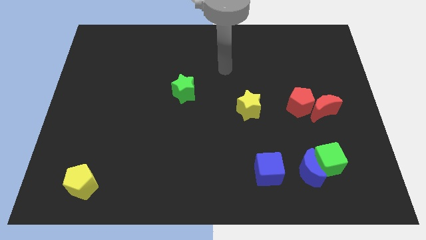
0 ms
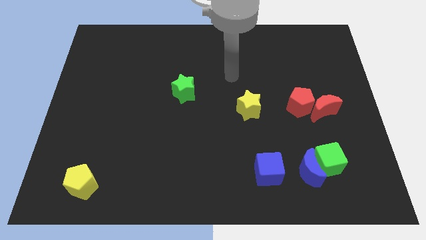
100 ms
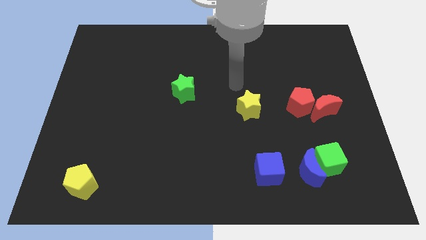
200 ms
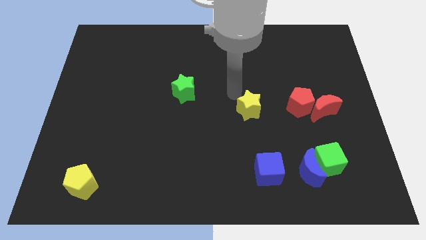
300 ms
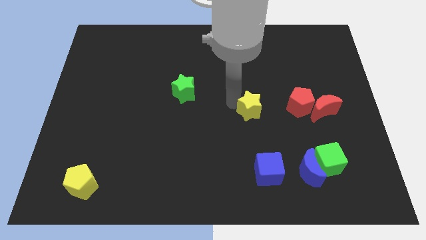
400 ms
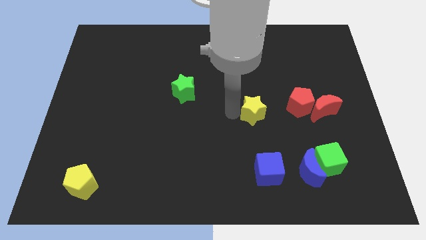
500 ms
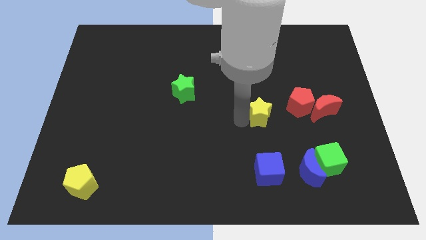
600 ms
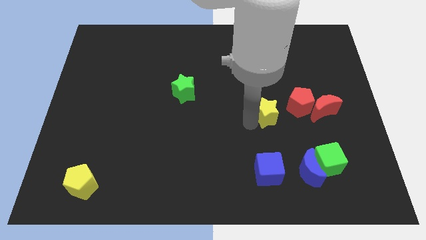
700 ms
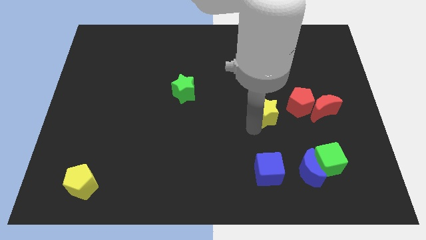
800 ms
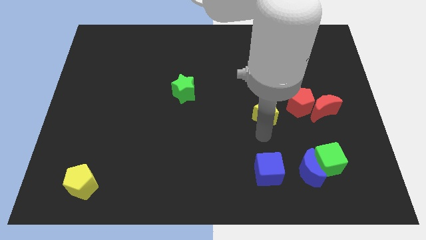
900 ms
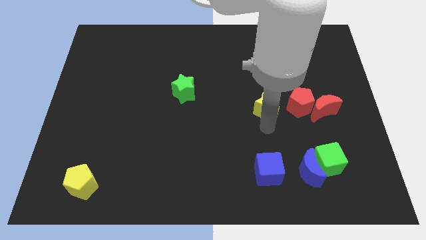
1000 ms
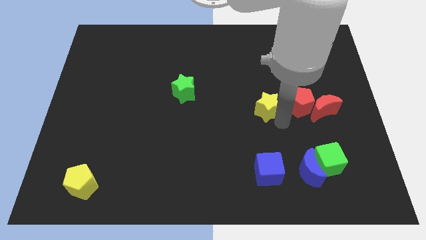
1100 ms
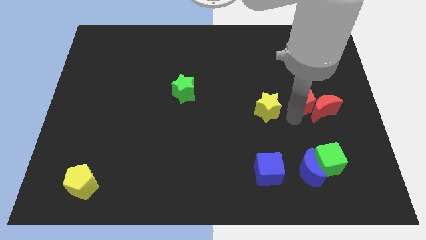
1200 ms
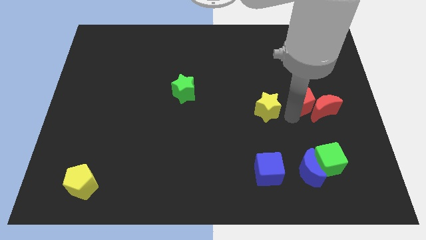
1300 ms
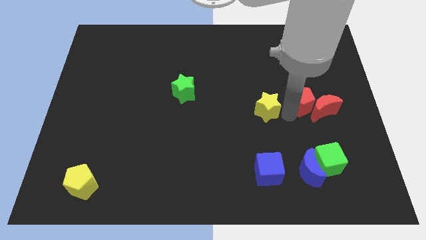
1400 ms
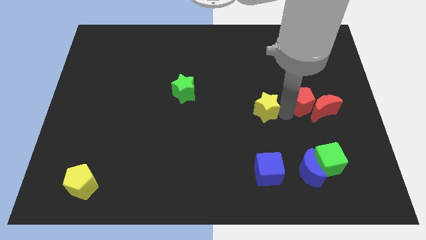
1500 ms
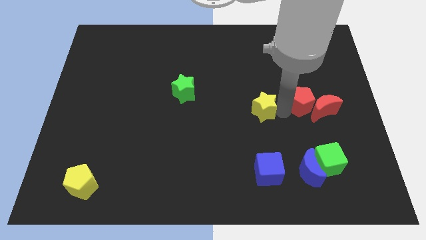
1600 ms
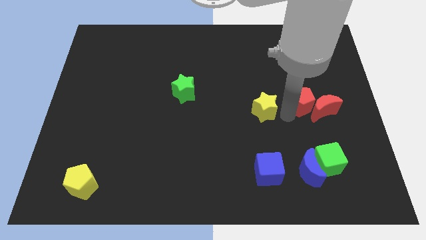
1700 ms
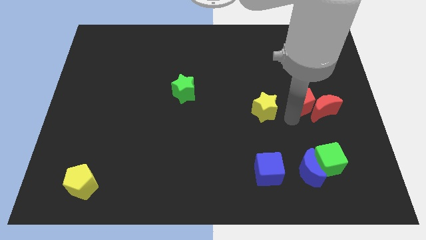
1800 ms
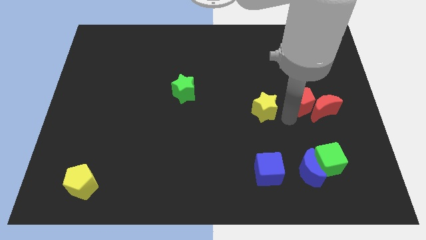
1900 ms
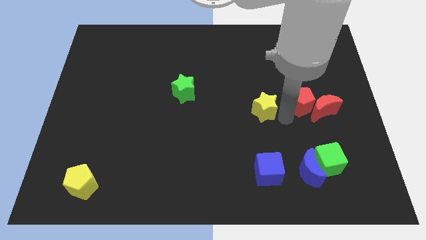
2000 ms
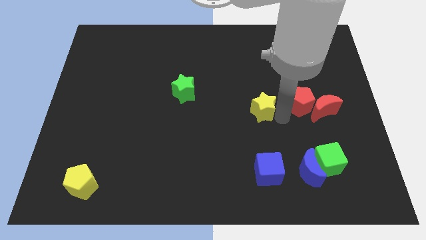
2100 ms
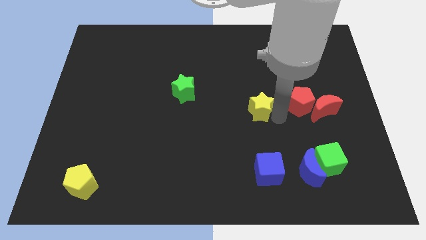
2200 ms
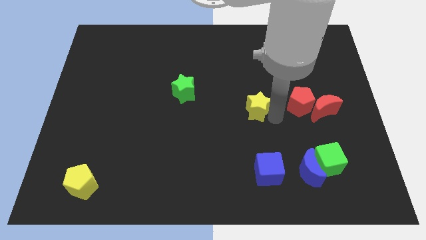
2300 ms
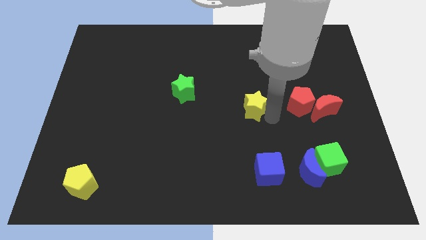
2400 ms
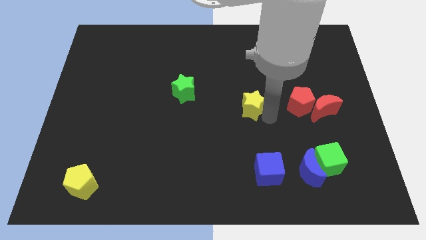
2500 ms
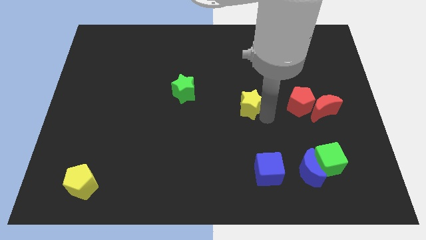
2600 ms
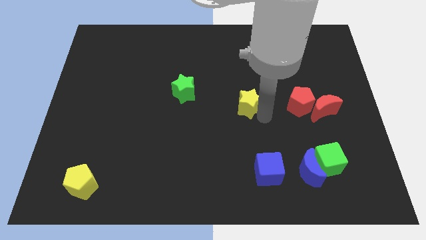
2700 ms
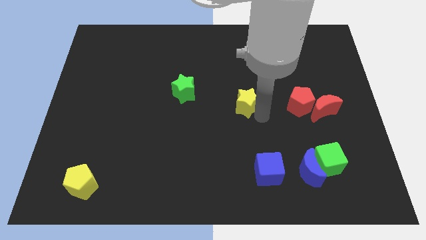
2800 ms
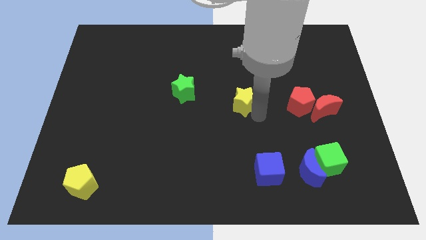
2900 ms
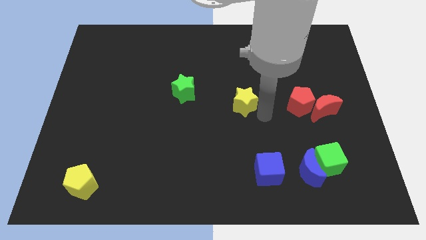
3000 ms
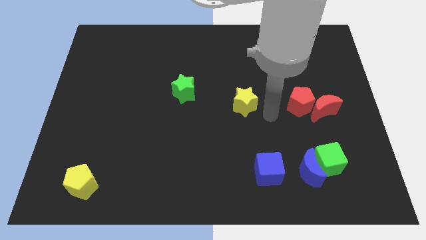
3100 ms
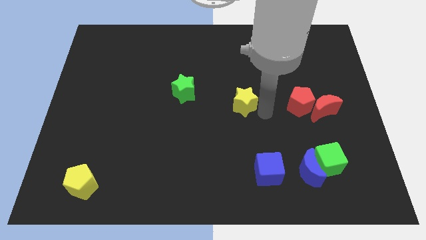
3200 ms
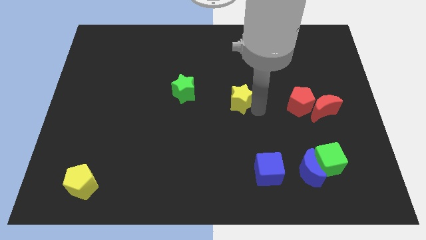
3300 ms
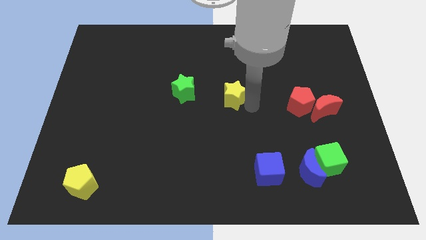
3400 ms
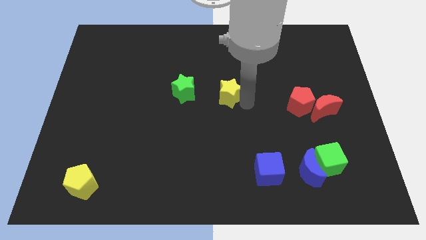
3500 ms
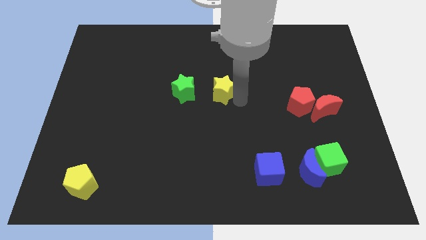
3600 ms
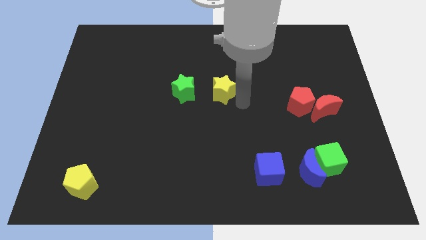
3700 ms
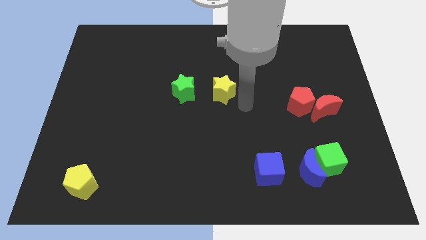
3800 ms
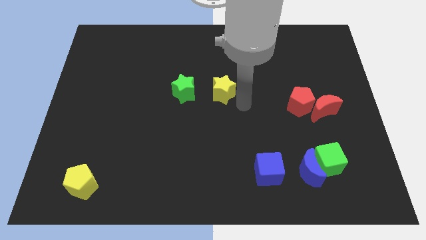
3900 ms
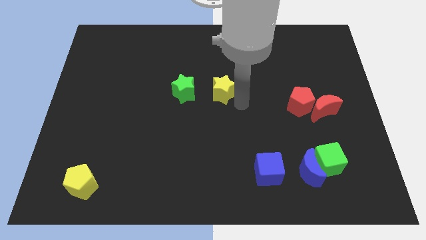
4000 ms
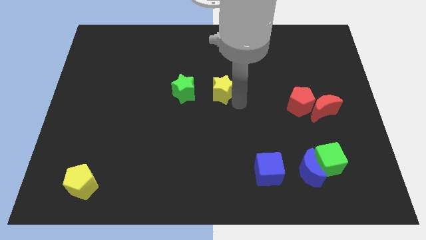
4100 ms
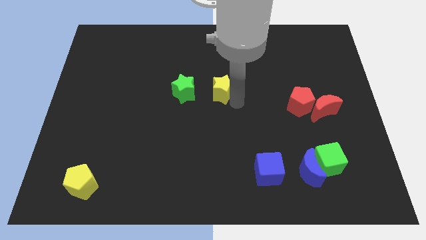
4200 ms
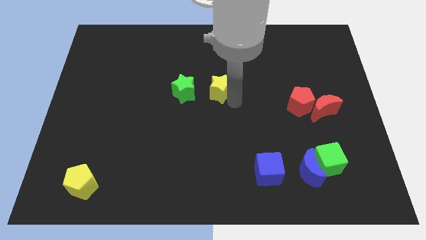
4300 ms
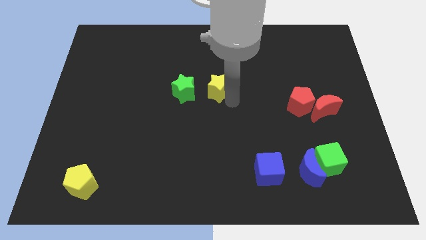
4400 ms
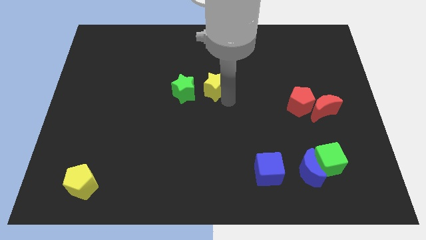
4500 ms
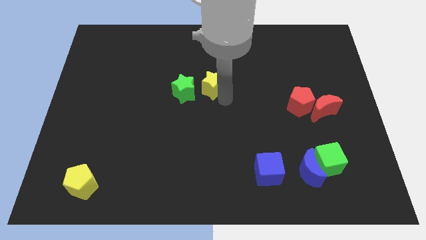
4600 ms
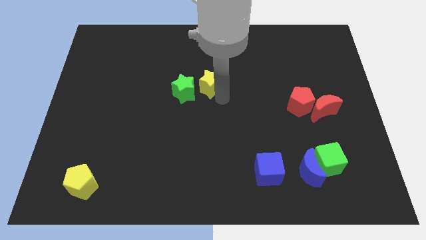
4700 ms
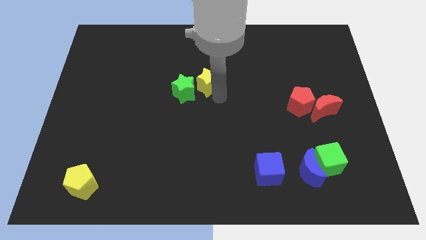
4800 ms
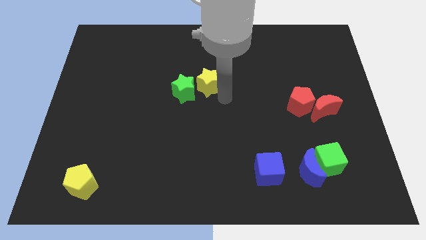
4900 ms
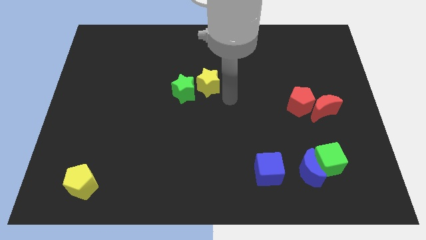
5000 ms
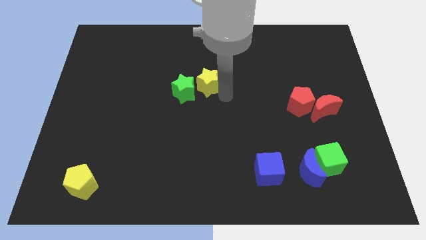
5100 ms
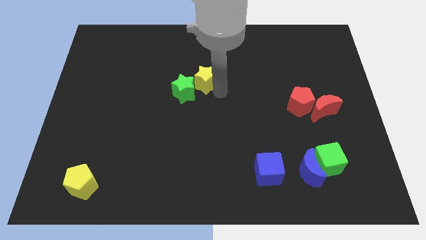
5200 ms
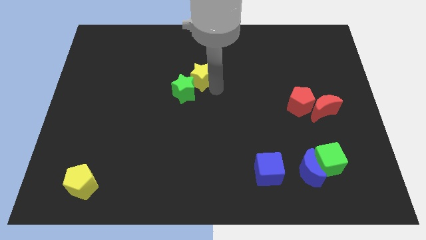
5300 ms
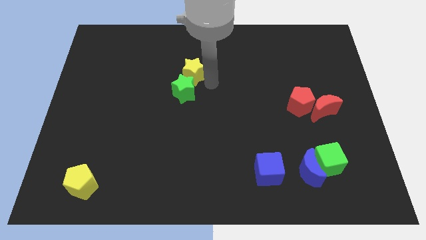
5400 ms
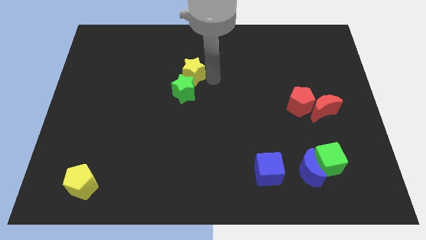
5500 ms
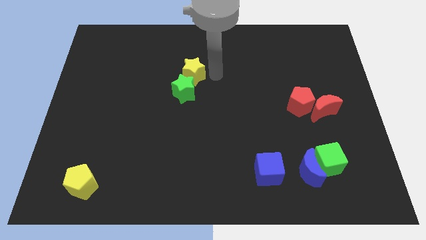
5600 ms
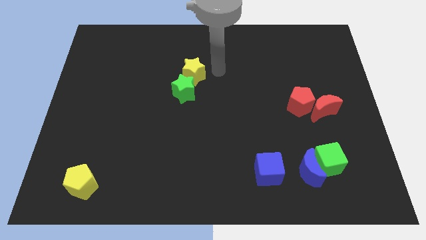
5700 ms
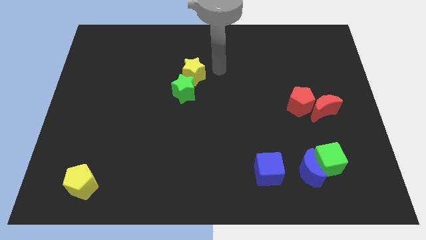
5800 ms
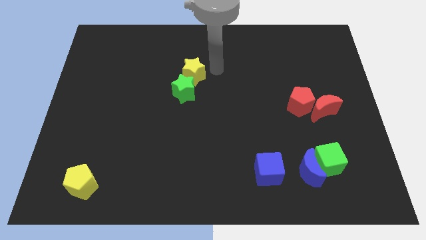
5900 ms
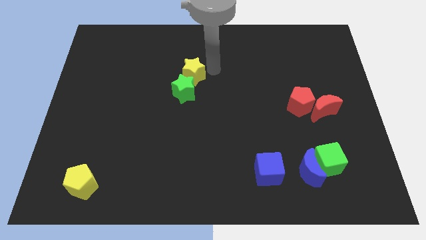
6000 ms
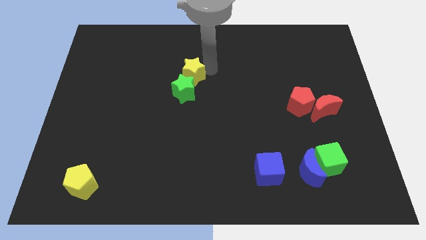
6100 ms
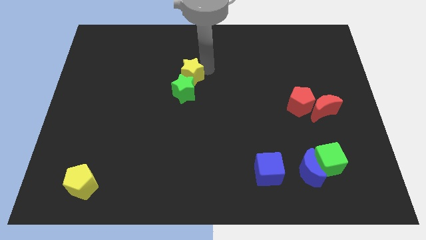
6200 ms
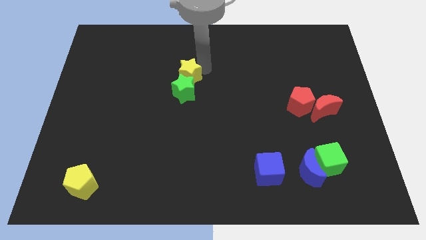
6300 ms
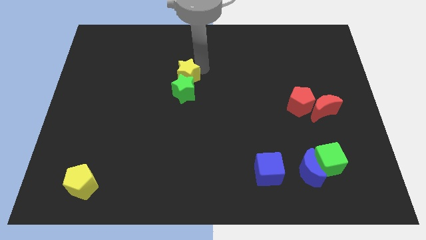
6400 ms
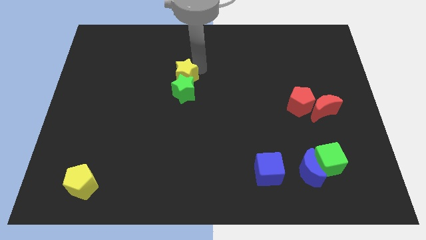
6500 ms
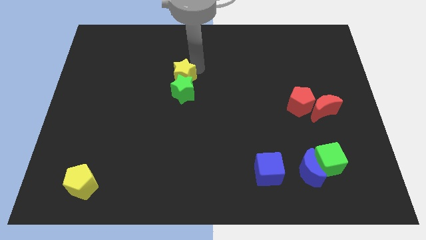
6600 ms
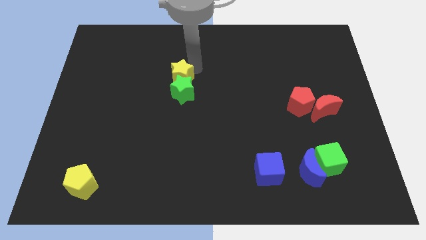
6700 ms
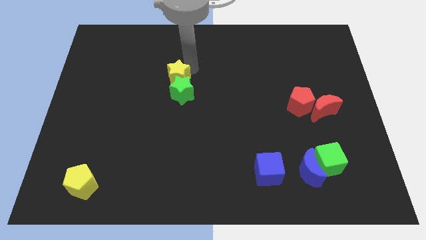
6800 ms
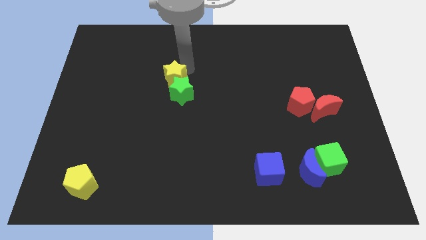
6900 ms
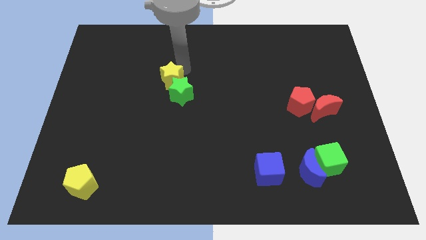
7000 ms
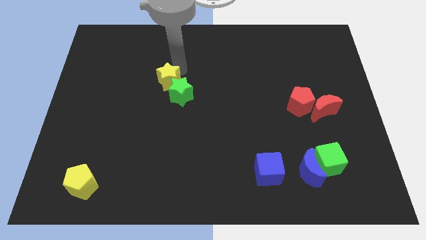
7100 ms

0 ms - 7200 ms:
slide the yellow star just left of the green star
